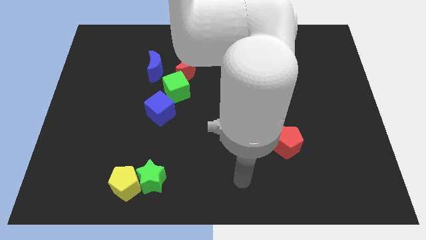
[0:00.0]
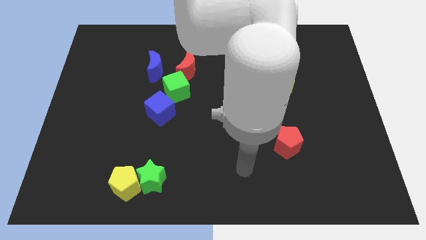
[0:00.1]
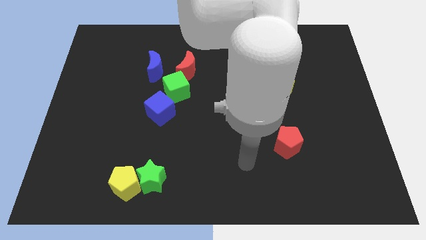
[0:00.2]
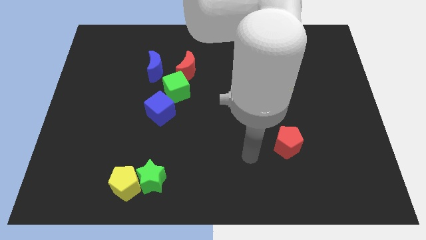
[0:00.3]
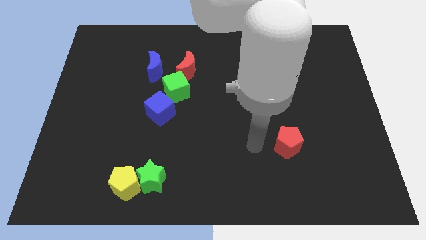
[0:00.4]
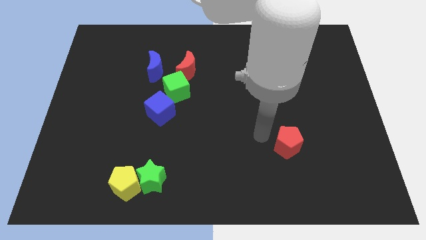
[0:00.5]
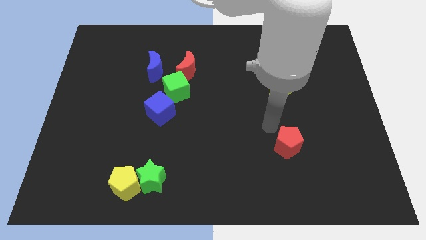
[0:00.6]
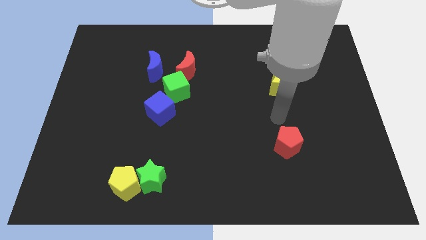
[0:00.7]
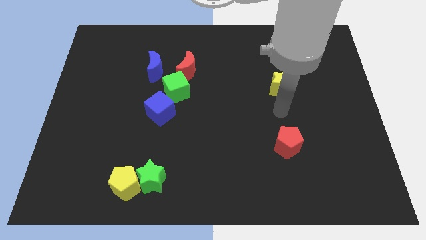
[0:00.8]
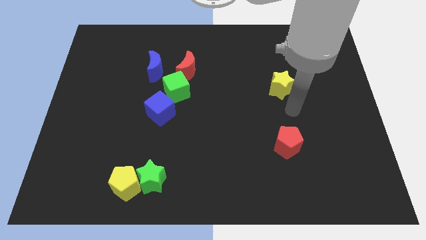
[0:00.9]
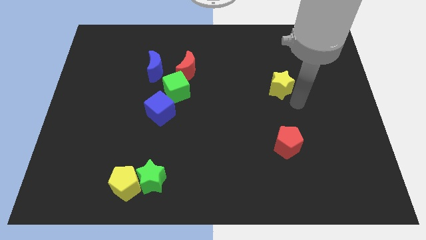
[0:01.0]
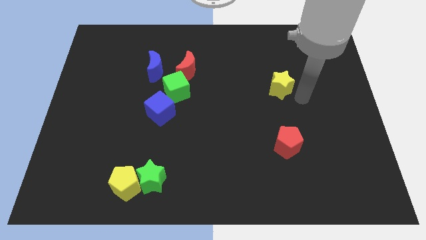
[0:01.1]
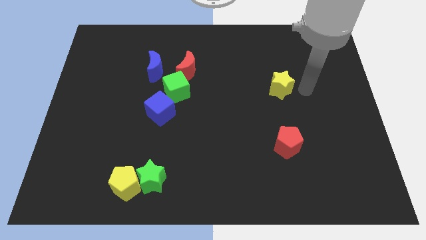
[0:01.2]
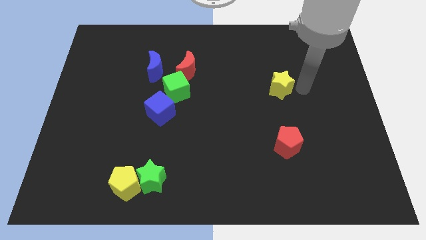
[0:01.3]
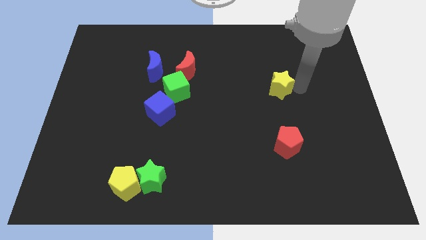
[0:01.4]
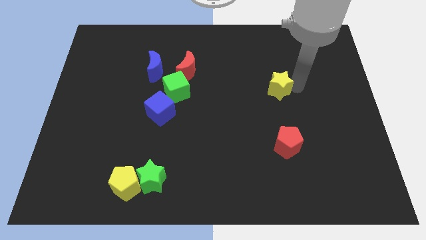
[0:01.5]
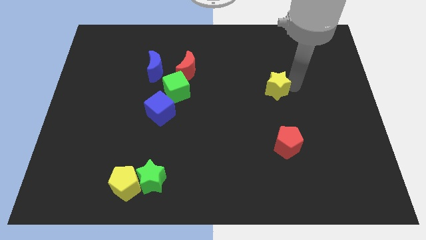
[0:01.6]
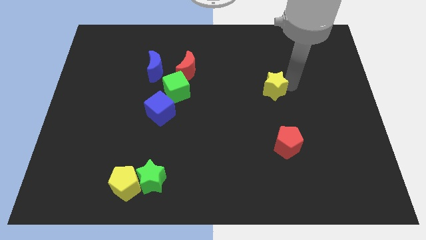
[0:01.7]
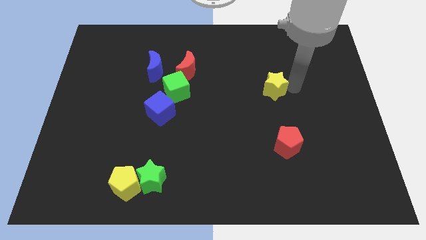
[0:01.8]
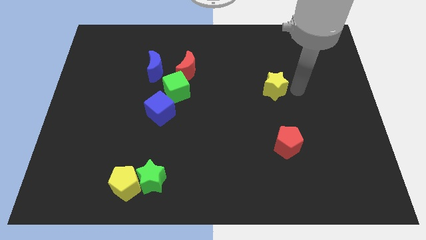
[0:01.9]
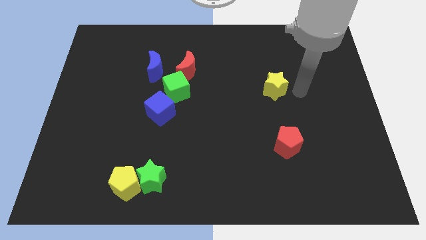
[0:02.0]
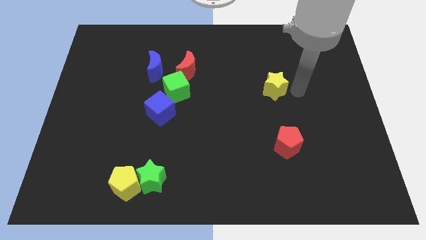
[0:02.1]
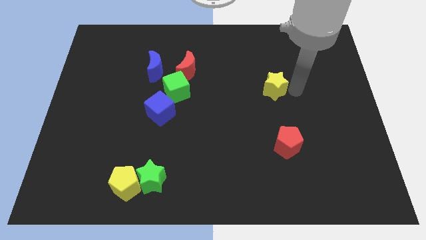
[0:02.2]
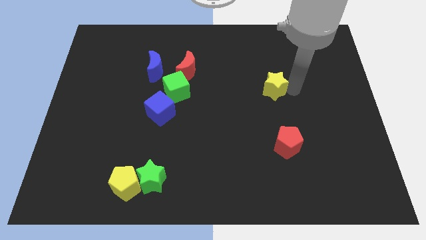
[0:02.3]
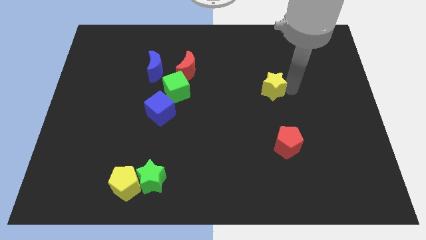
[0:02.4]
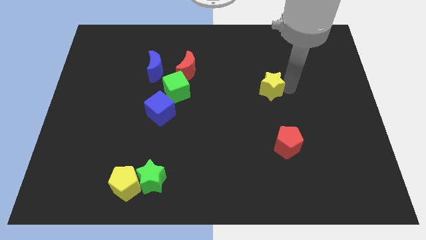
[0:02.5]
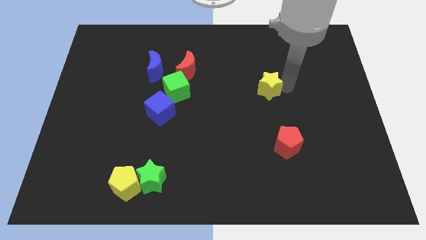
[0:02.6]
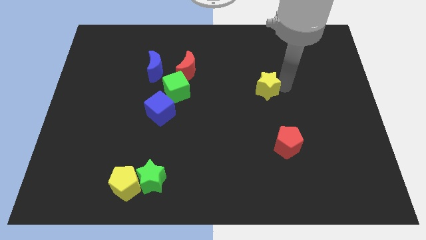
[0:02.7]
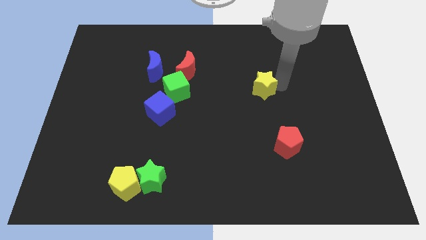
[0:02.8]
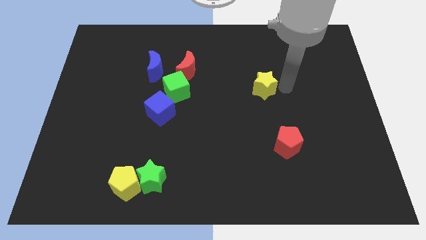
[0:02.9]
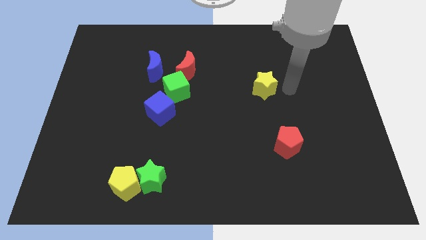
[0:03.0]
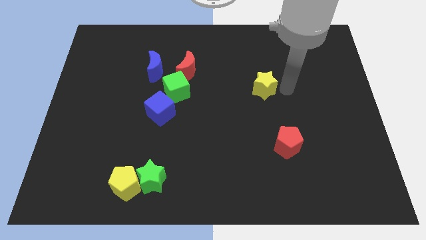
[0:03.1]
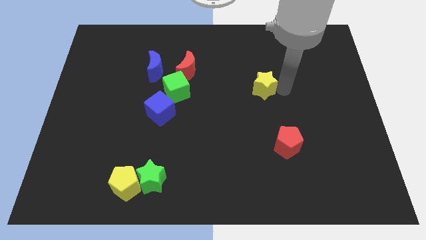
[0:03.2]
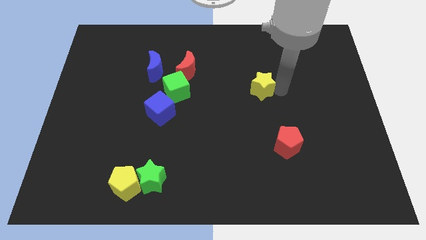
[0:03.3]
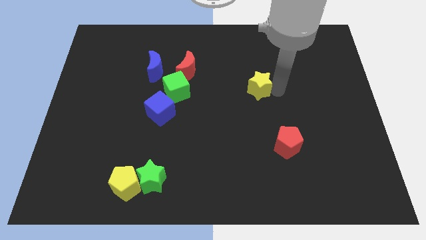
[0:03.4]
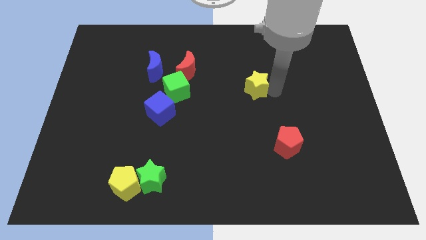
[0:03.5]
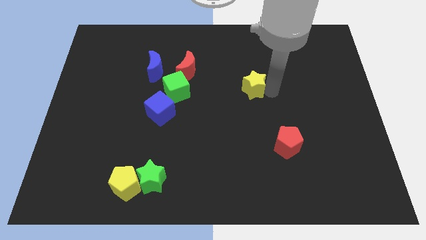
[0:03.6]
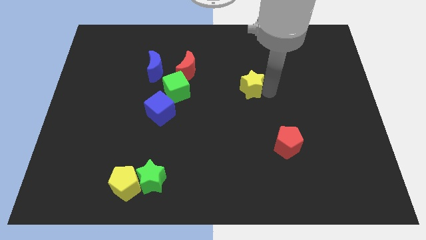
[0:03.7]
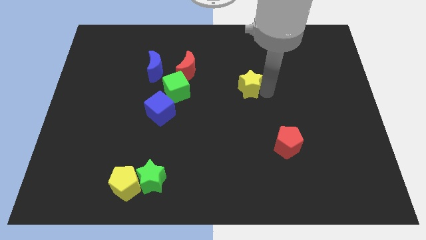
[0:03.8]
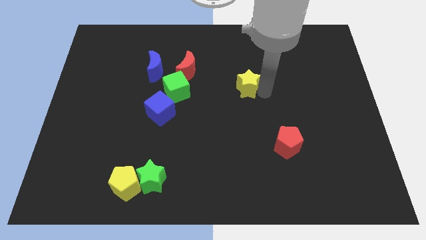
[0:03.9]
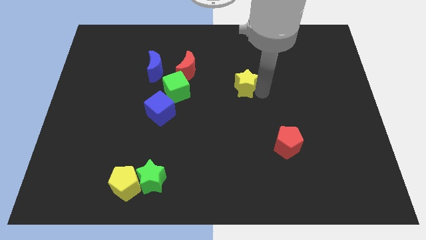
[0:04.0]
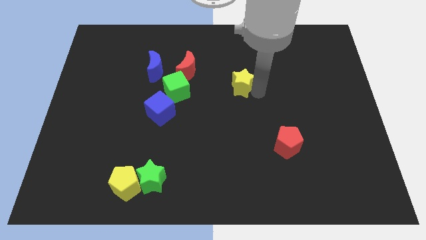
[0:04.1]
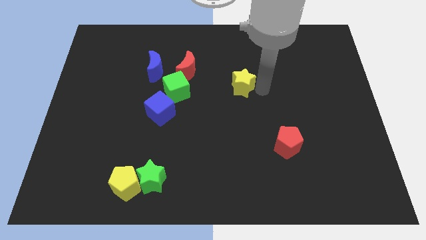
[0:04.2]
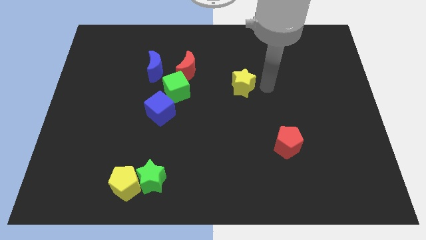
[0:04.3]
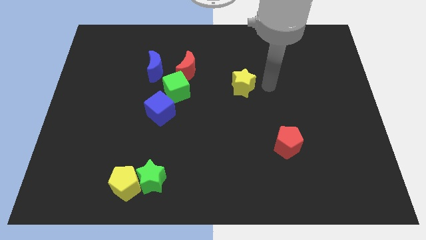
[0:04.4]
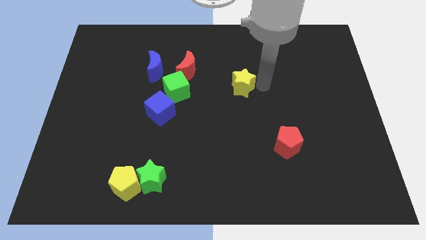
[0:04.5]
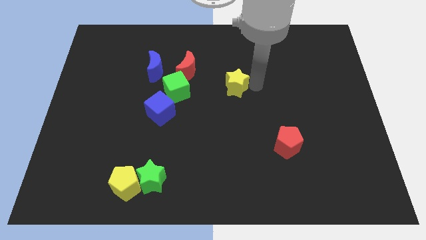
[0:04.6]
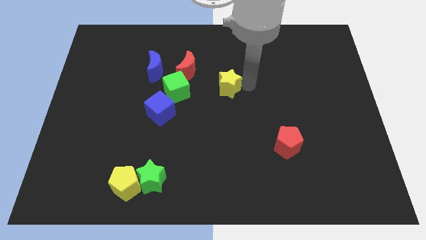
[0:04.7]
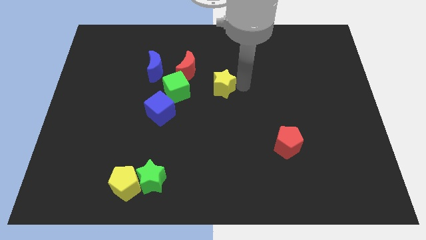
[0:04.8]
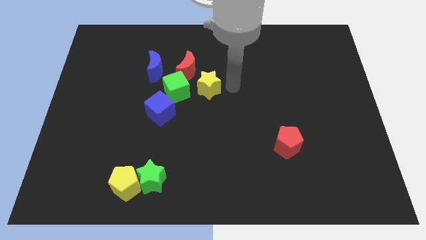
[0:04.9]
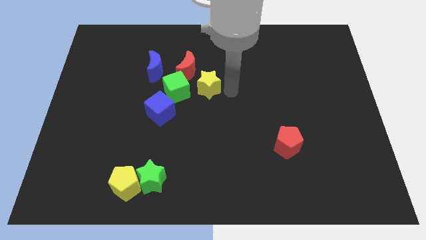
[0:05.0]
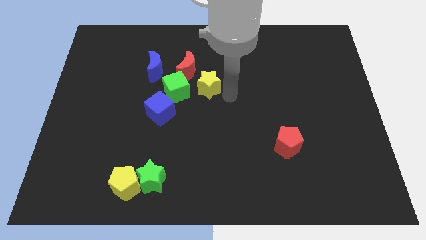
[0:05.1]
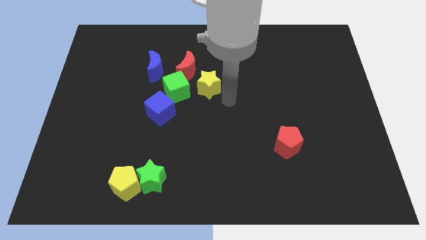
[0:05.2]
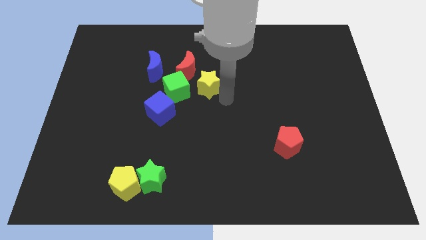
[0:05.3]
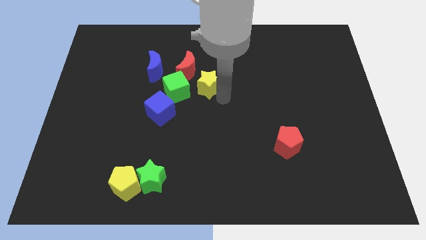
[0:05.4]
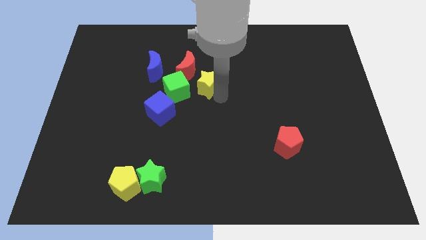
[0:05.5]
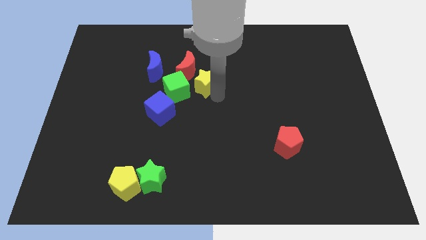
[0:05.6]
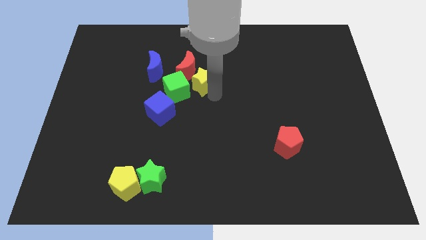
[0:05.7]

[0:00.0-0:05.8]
push the yellow star next to the red moon

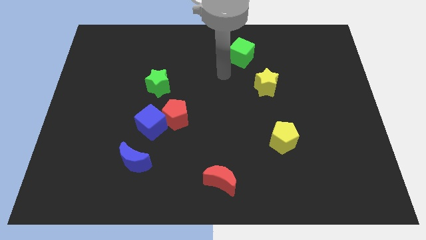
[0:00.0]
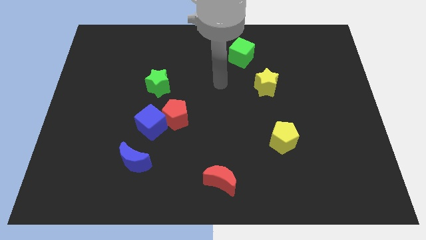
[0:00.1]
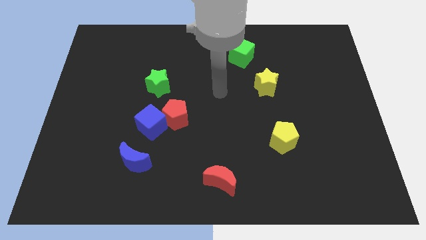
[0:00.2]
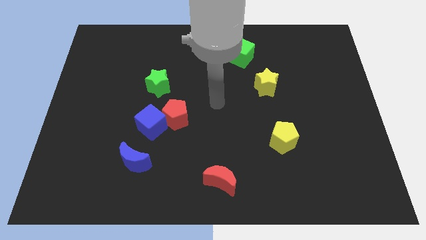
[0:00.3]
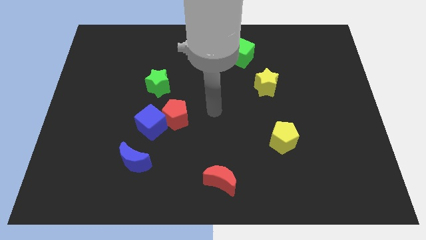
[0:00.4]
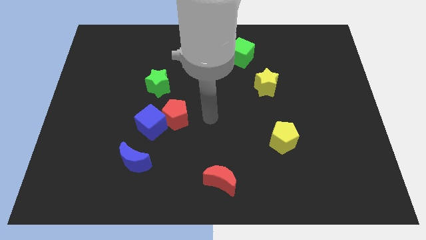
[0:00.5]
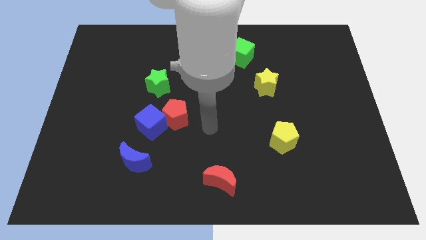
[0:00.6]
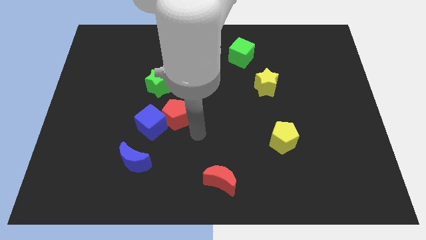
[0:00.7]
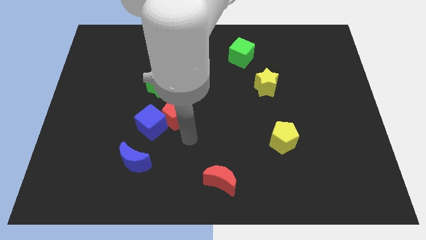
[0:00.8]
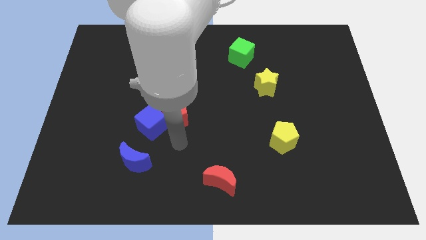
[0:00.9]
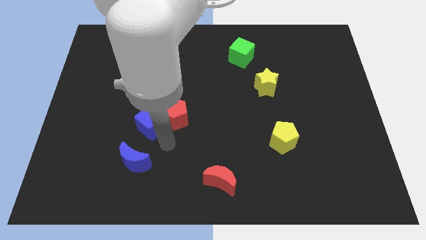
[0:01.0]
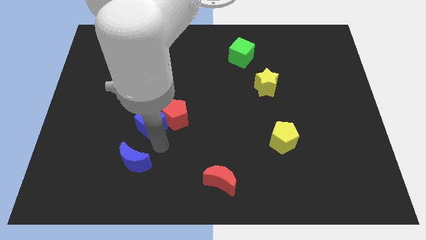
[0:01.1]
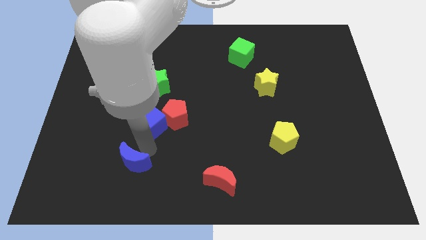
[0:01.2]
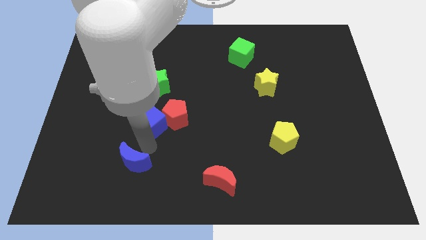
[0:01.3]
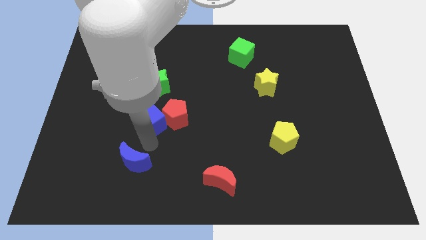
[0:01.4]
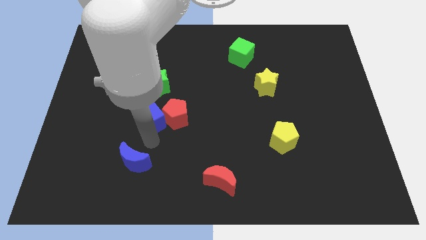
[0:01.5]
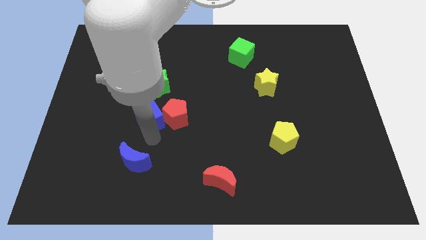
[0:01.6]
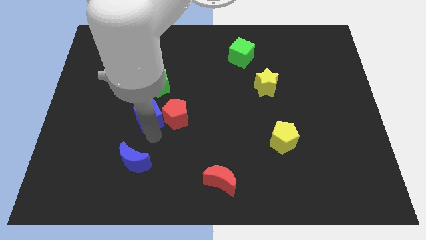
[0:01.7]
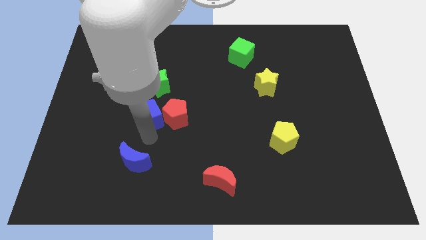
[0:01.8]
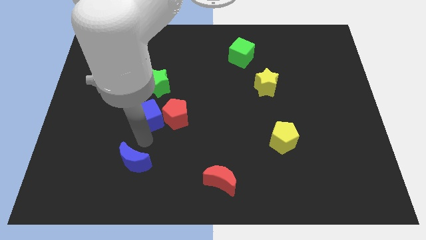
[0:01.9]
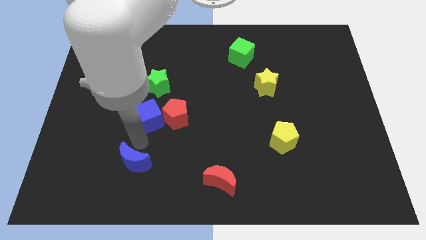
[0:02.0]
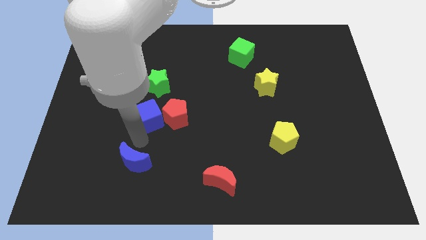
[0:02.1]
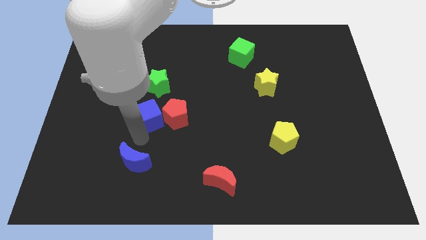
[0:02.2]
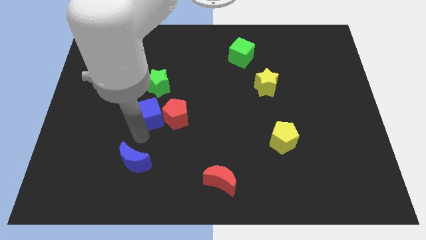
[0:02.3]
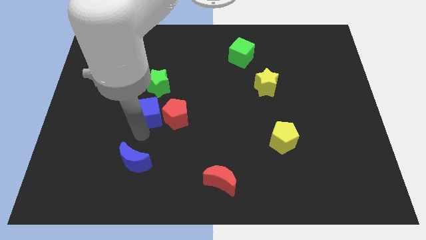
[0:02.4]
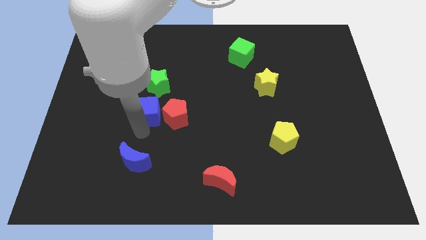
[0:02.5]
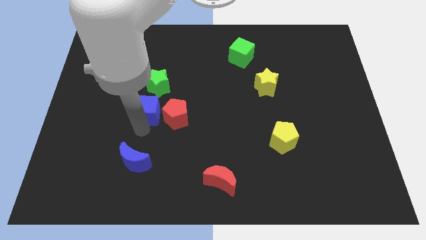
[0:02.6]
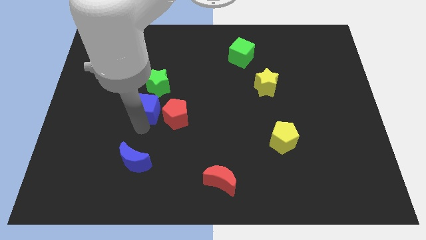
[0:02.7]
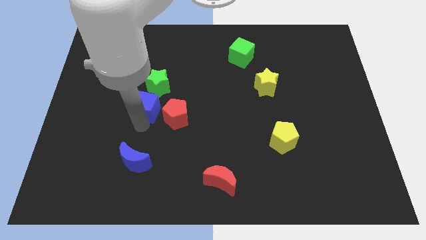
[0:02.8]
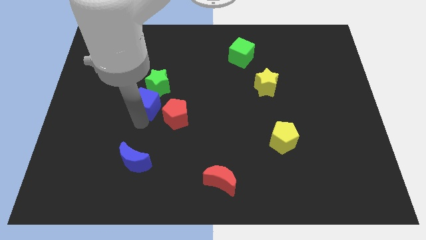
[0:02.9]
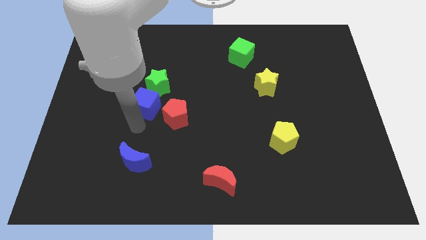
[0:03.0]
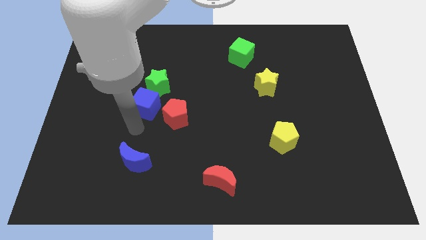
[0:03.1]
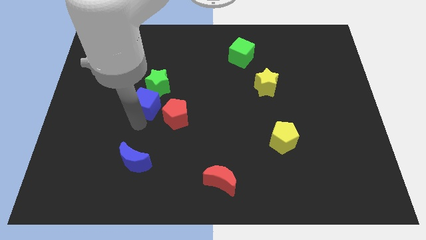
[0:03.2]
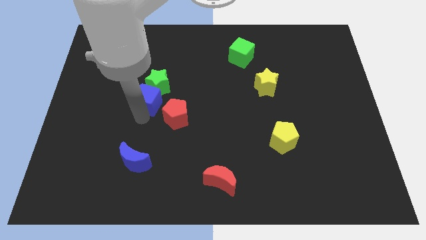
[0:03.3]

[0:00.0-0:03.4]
put the blue cube close to the green star
